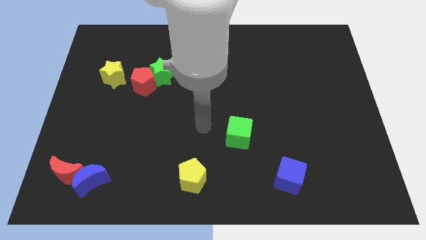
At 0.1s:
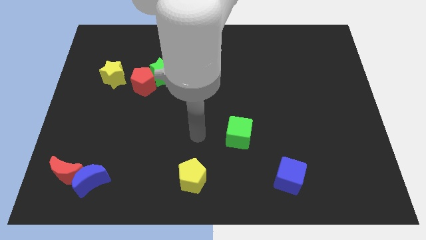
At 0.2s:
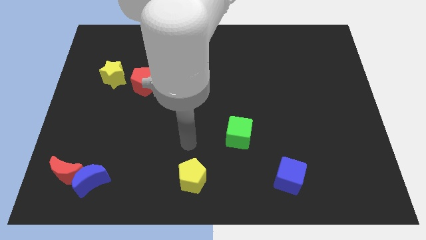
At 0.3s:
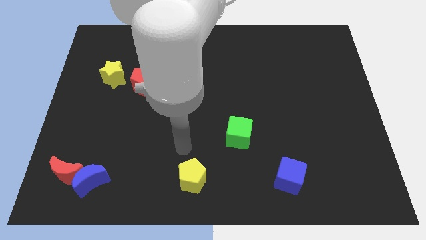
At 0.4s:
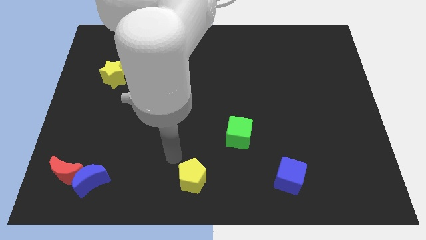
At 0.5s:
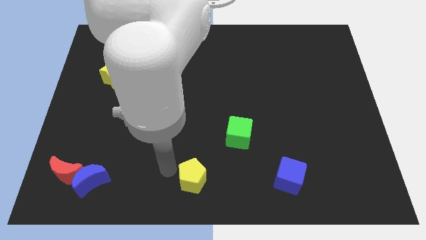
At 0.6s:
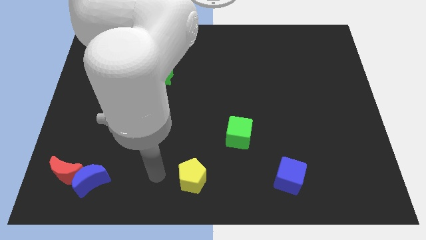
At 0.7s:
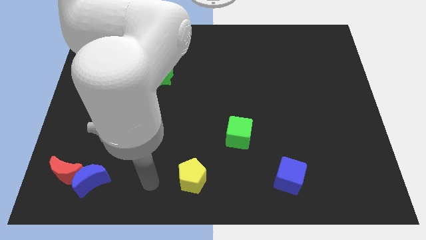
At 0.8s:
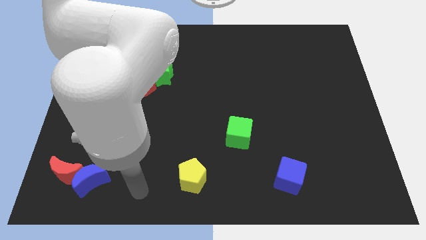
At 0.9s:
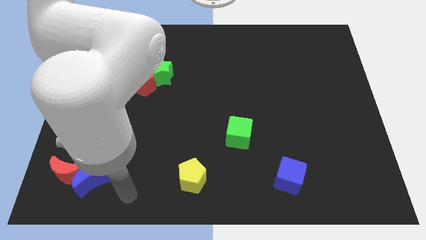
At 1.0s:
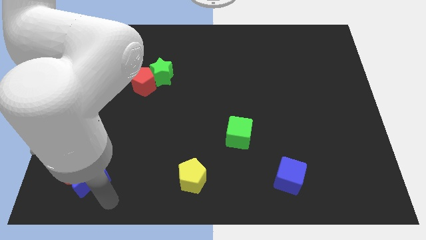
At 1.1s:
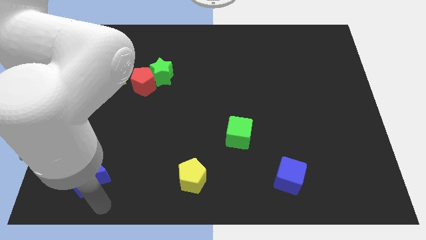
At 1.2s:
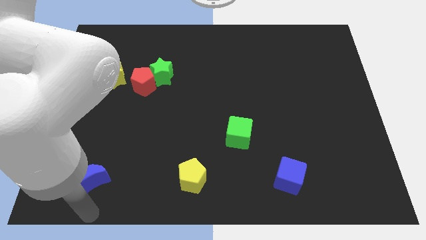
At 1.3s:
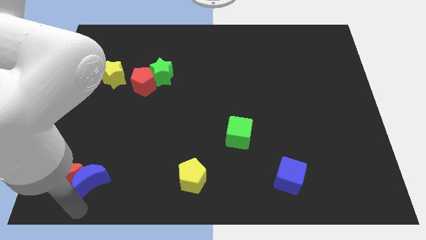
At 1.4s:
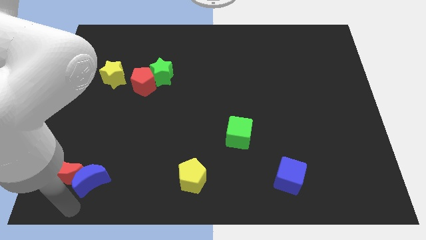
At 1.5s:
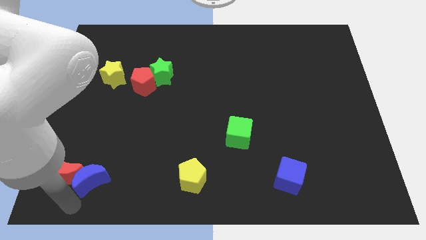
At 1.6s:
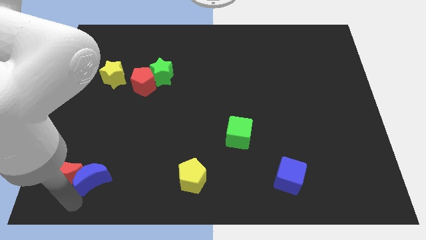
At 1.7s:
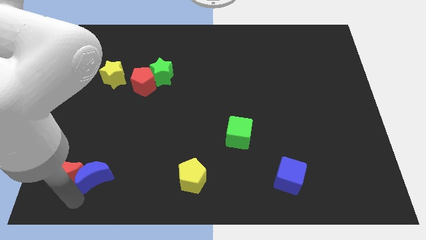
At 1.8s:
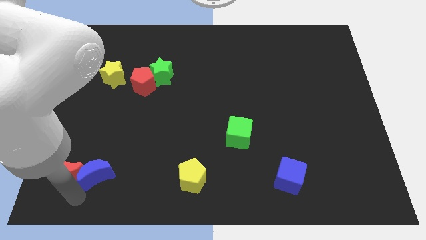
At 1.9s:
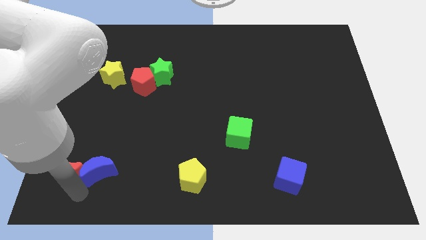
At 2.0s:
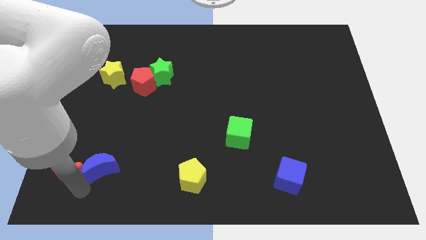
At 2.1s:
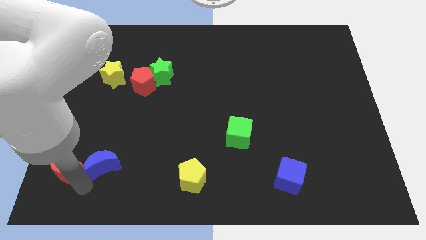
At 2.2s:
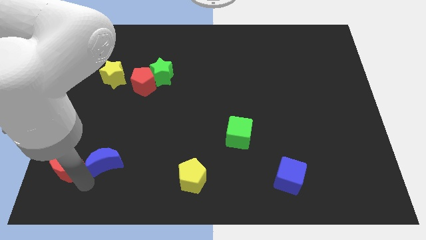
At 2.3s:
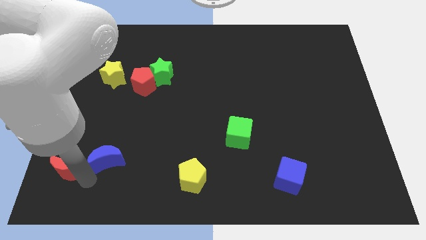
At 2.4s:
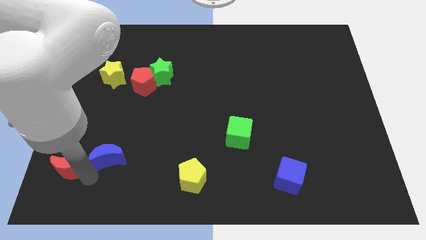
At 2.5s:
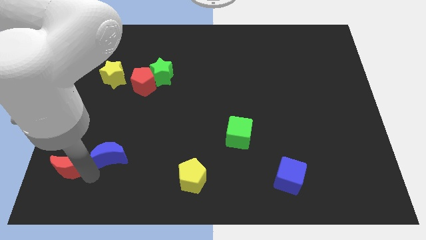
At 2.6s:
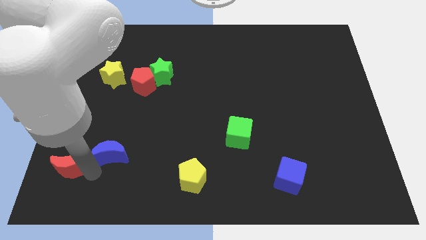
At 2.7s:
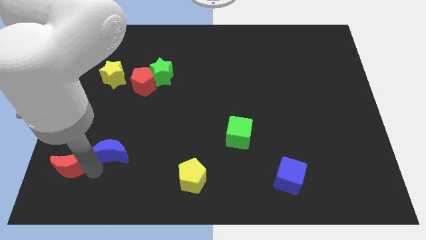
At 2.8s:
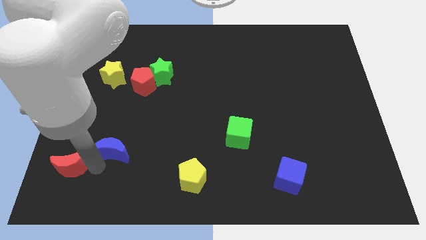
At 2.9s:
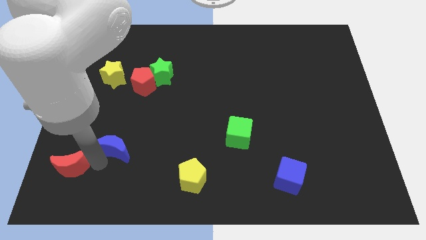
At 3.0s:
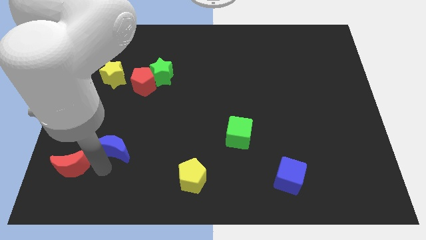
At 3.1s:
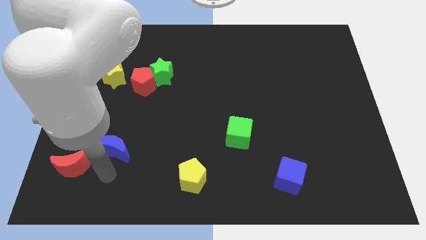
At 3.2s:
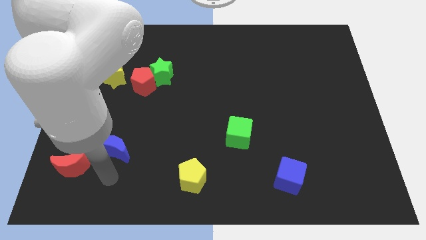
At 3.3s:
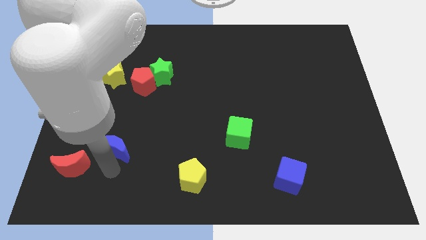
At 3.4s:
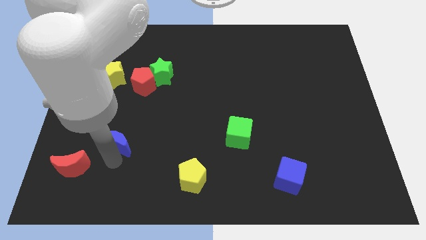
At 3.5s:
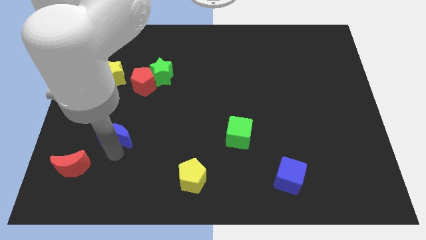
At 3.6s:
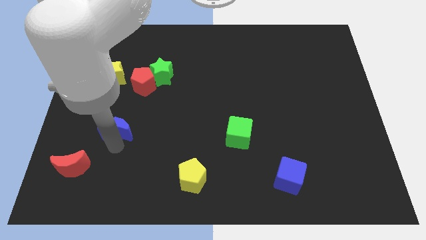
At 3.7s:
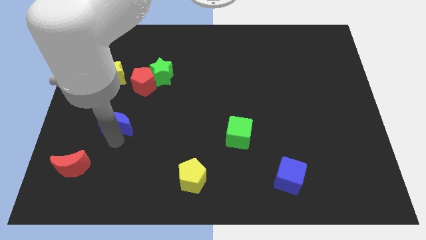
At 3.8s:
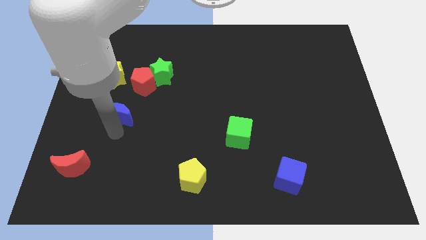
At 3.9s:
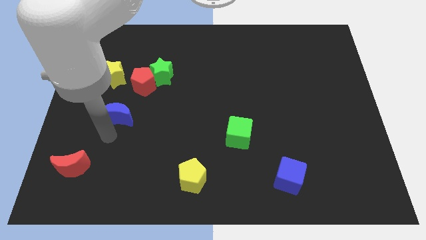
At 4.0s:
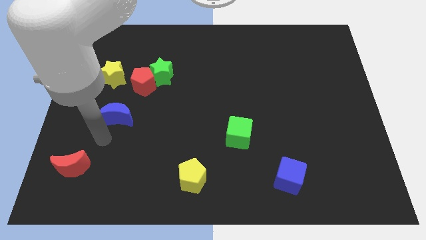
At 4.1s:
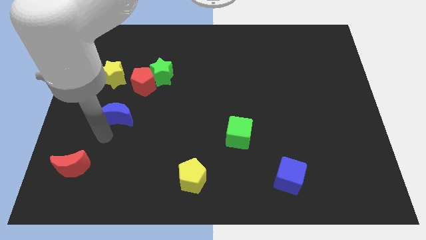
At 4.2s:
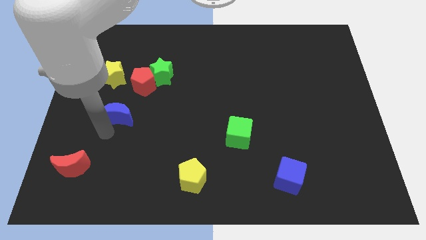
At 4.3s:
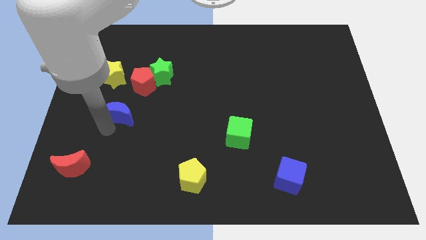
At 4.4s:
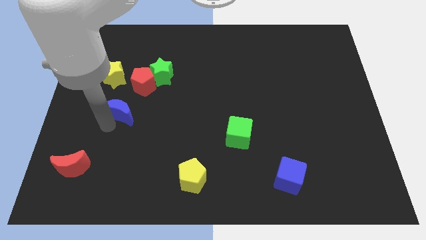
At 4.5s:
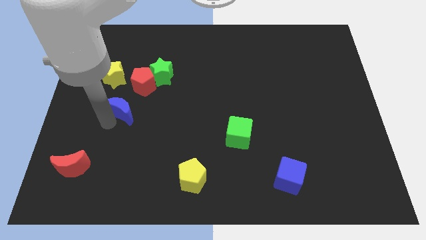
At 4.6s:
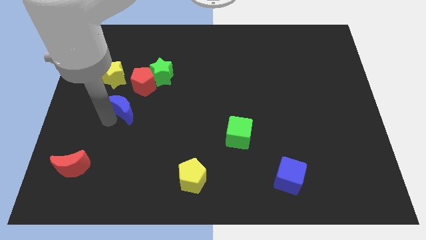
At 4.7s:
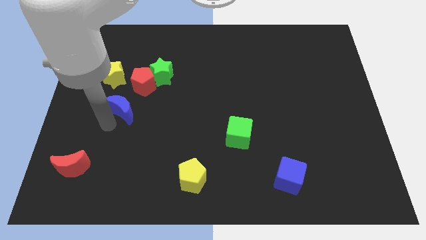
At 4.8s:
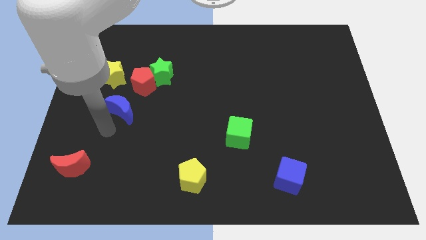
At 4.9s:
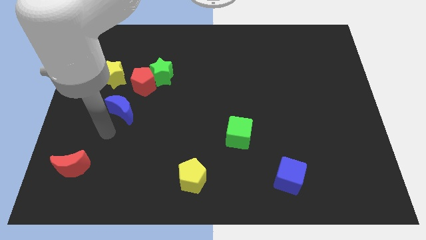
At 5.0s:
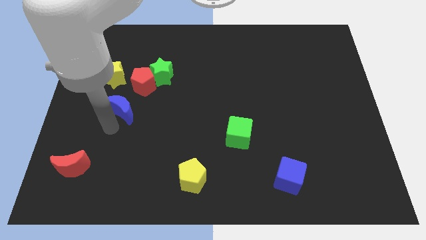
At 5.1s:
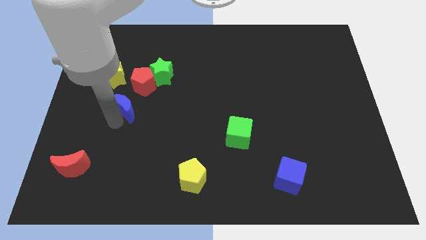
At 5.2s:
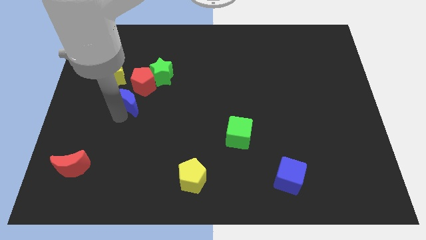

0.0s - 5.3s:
push the blue moon diagonally down and to the left of the green star

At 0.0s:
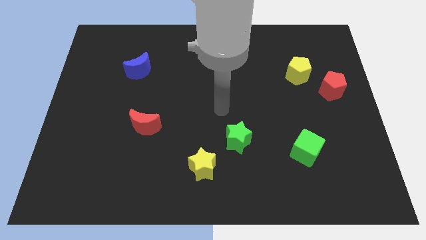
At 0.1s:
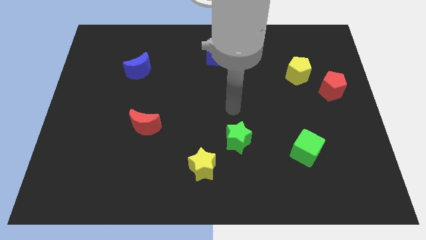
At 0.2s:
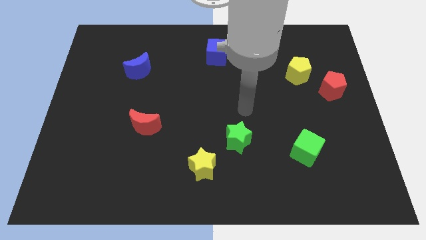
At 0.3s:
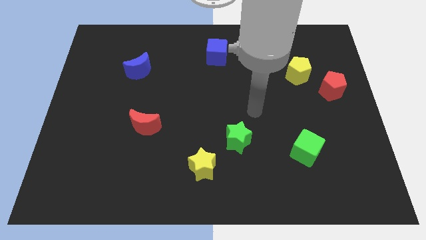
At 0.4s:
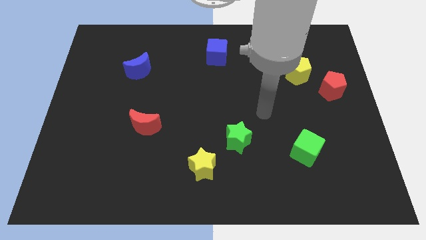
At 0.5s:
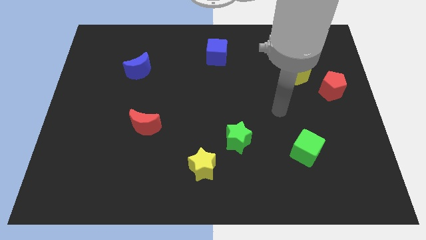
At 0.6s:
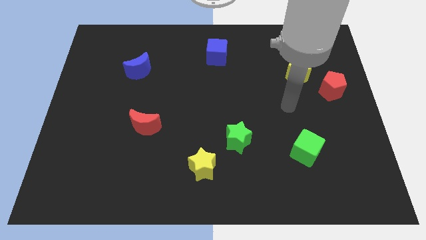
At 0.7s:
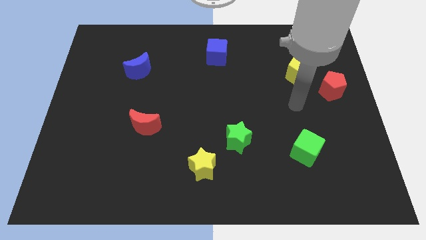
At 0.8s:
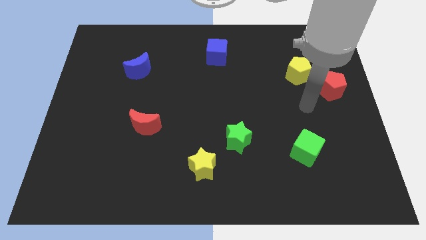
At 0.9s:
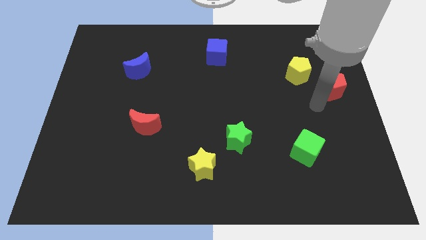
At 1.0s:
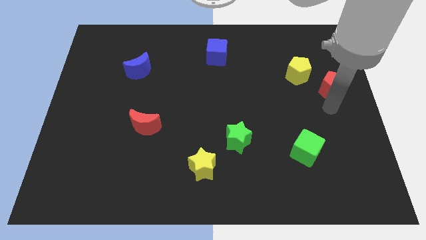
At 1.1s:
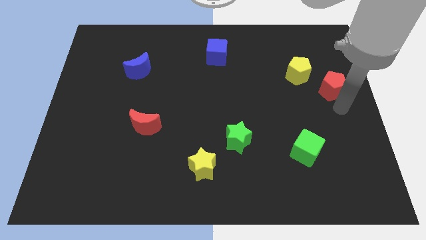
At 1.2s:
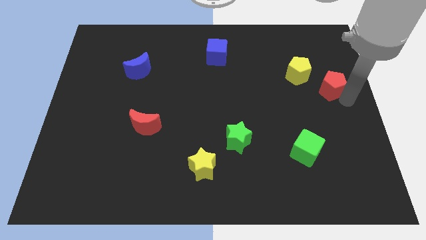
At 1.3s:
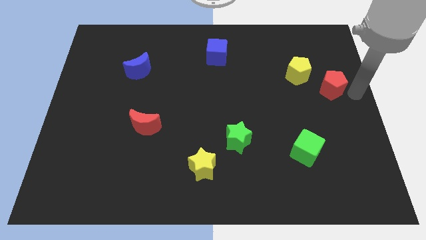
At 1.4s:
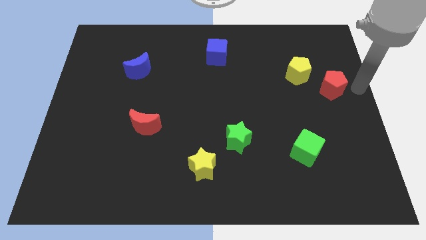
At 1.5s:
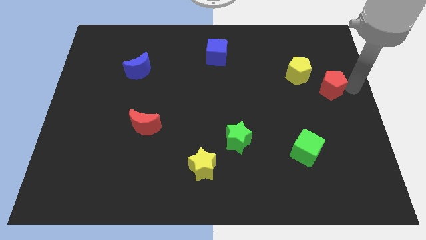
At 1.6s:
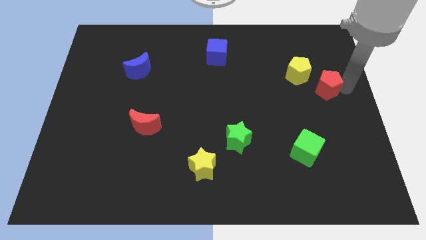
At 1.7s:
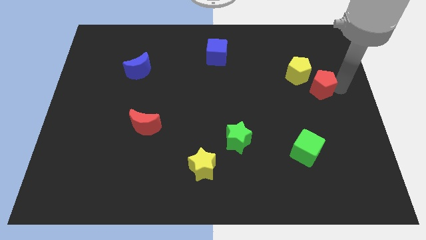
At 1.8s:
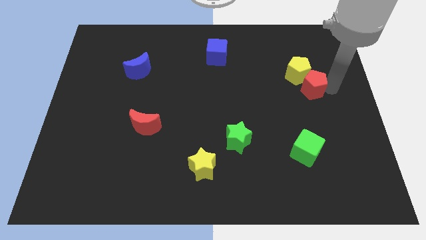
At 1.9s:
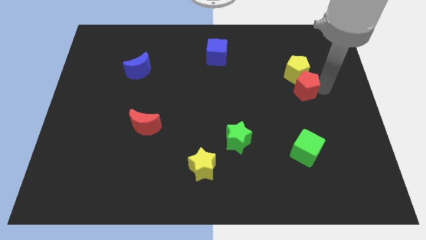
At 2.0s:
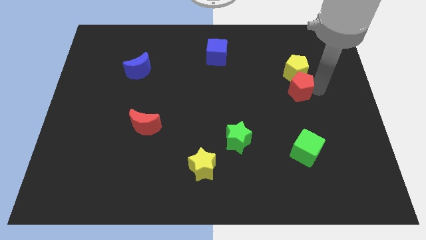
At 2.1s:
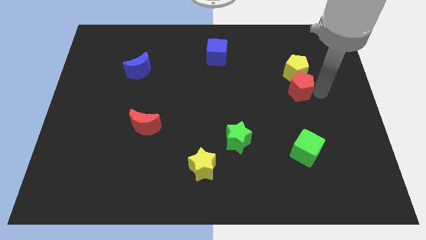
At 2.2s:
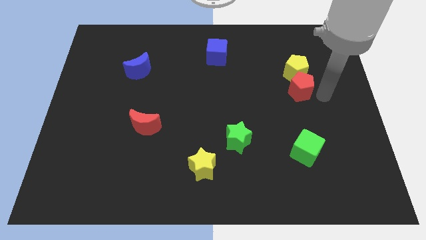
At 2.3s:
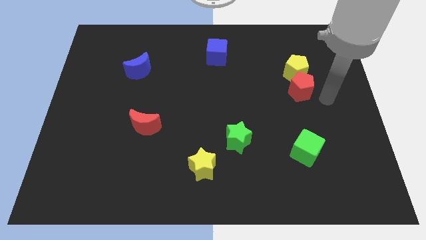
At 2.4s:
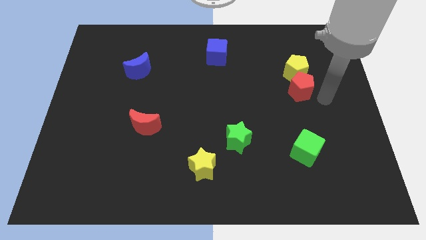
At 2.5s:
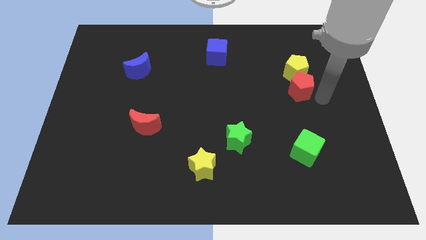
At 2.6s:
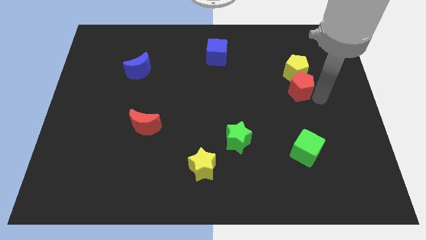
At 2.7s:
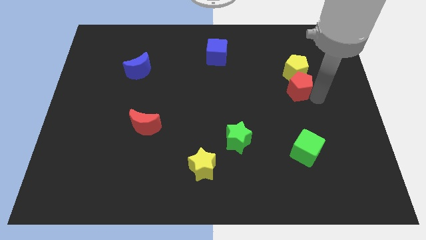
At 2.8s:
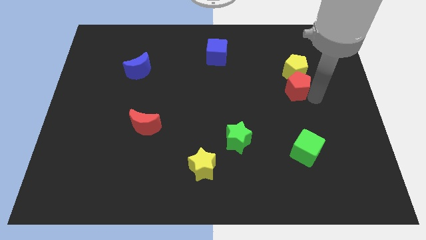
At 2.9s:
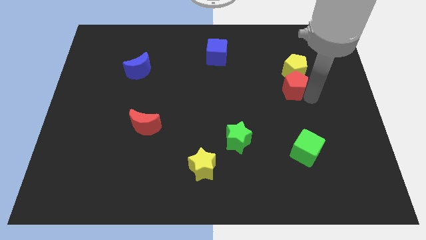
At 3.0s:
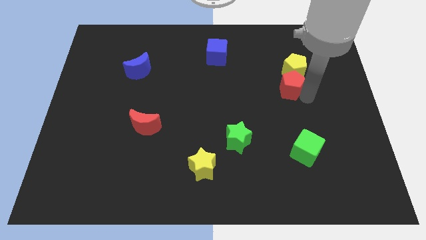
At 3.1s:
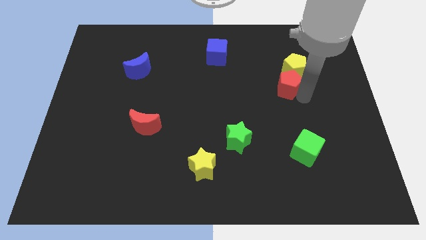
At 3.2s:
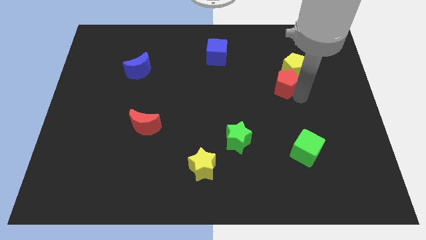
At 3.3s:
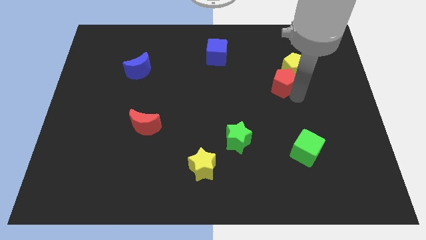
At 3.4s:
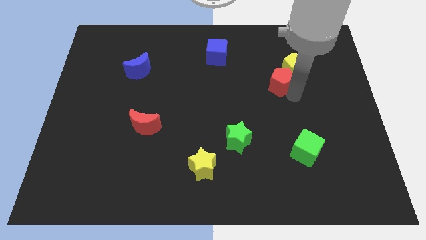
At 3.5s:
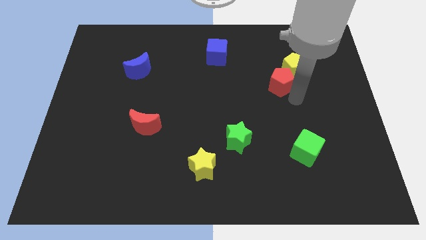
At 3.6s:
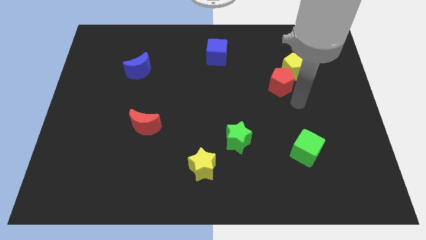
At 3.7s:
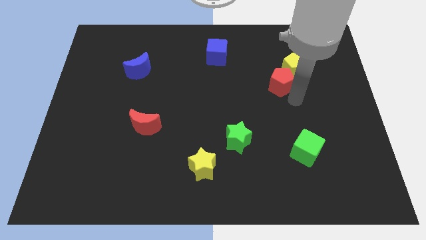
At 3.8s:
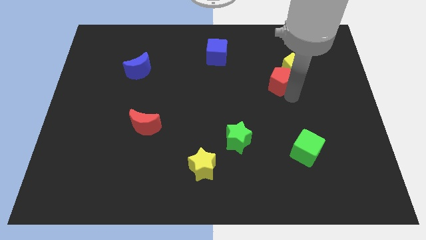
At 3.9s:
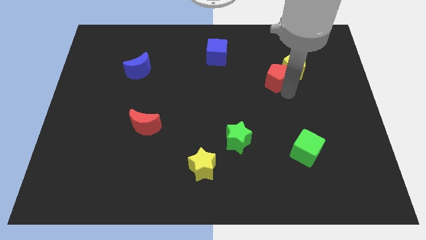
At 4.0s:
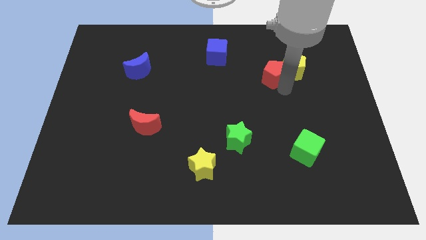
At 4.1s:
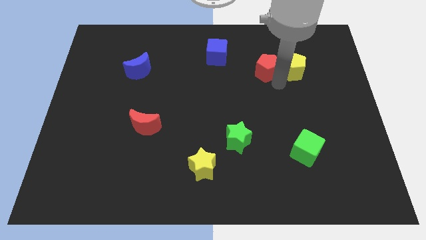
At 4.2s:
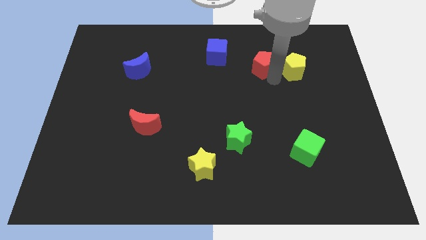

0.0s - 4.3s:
slide the red pentagon just right of the blue cube
